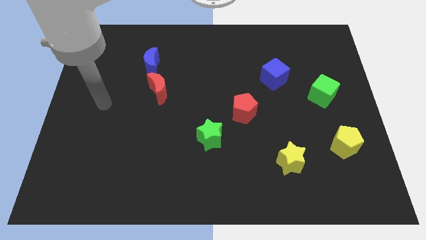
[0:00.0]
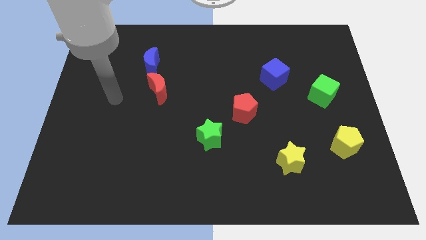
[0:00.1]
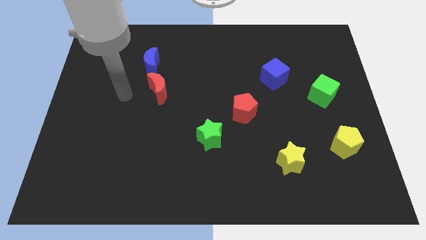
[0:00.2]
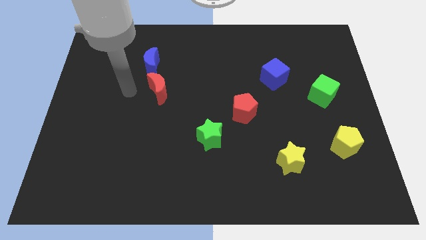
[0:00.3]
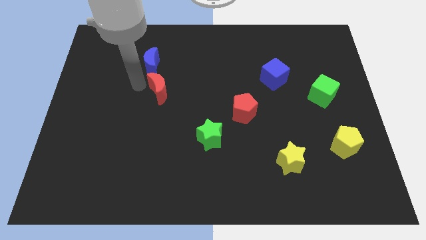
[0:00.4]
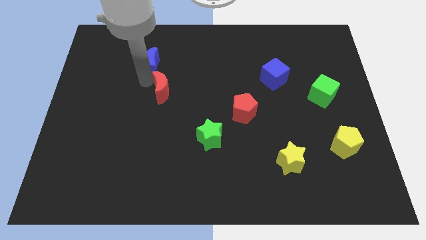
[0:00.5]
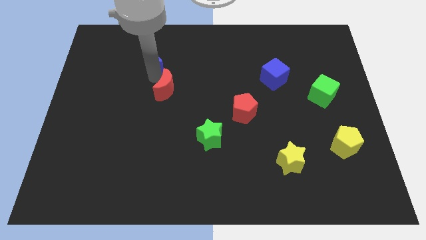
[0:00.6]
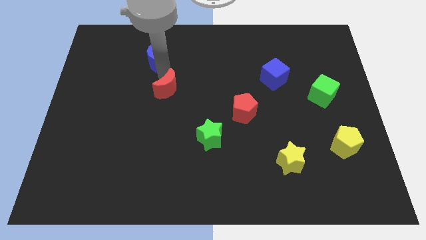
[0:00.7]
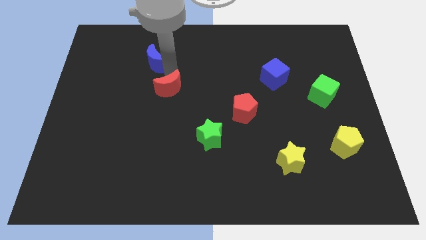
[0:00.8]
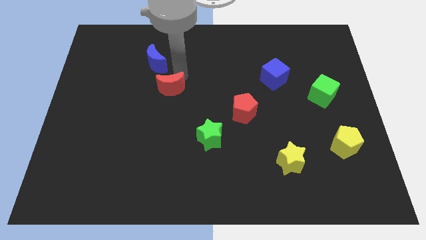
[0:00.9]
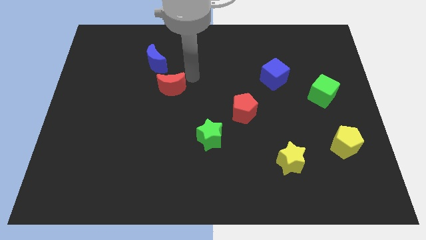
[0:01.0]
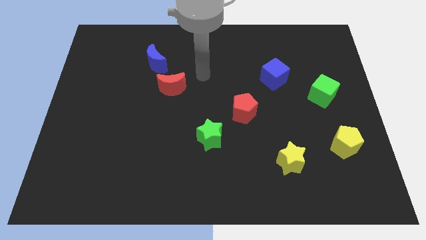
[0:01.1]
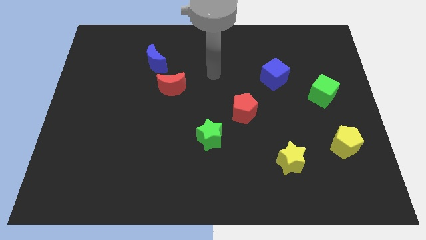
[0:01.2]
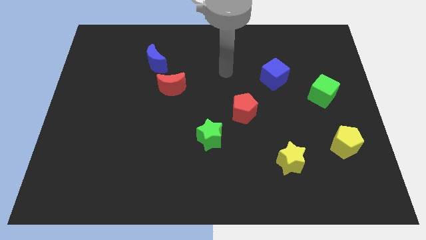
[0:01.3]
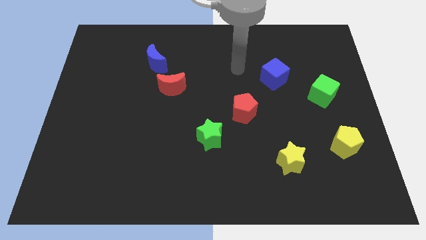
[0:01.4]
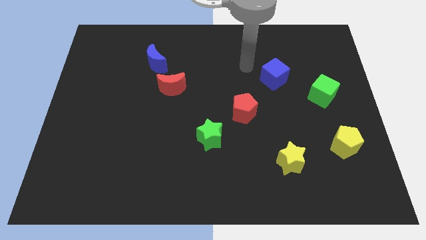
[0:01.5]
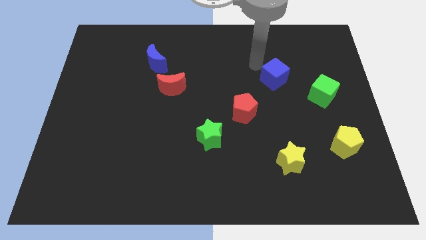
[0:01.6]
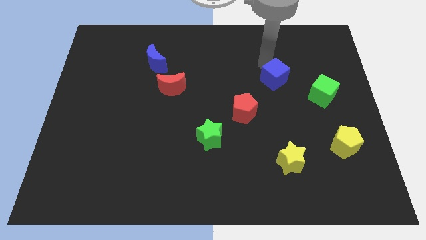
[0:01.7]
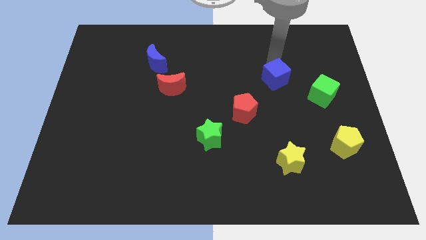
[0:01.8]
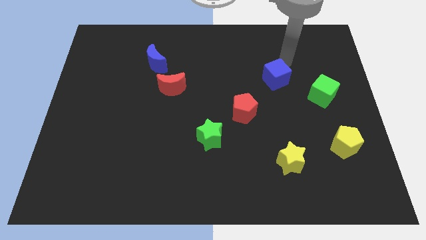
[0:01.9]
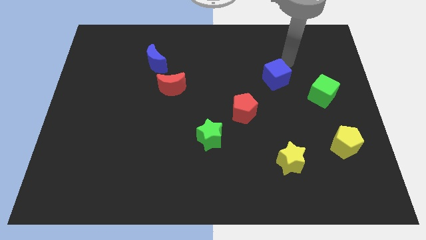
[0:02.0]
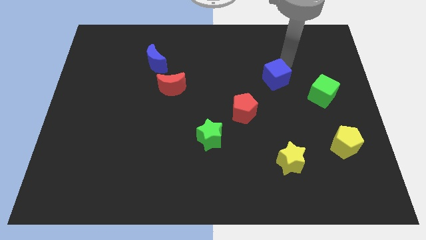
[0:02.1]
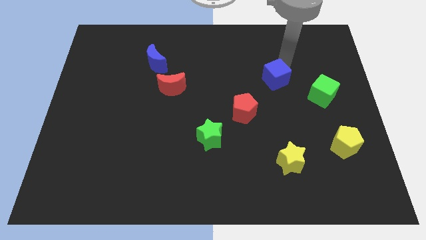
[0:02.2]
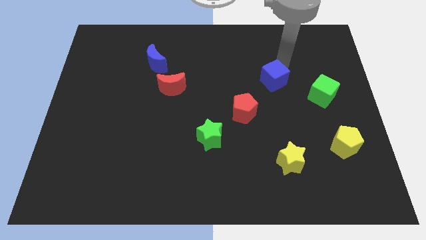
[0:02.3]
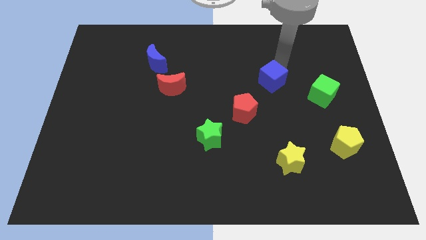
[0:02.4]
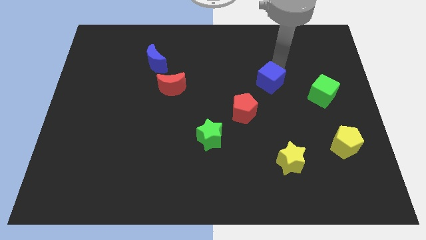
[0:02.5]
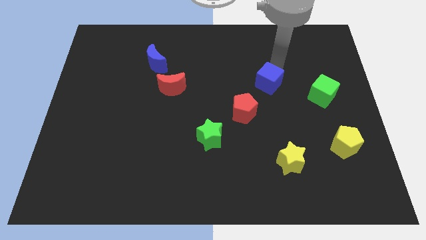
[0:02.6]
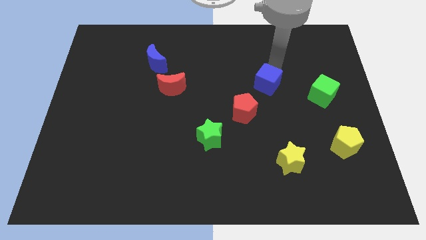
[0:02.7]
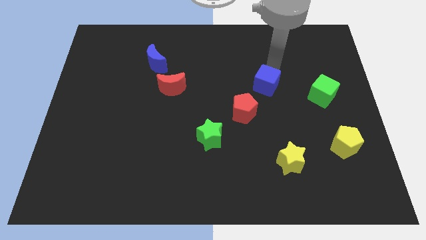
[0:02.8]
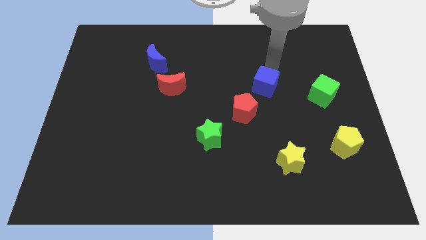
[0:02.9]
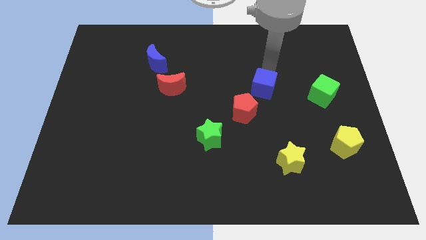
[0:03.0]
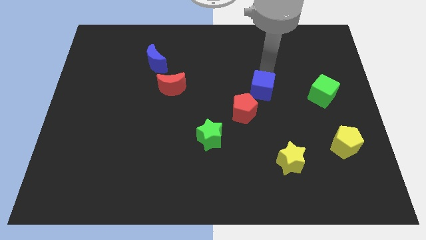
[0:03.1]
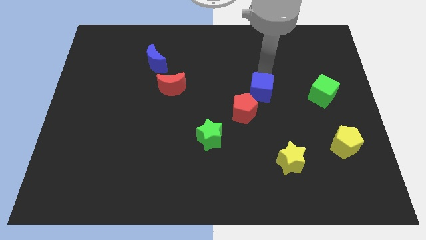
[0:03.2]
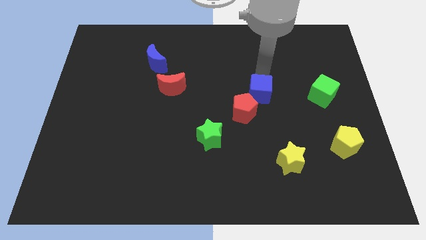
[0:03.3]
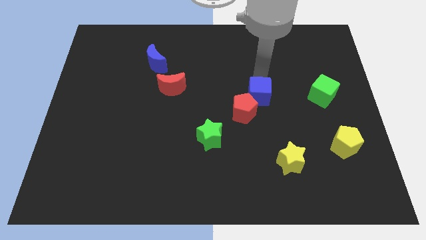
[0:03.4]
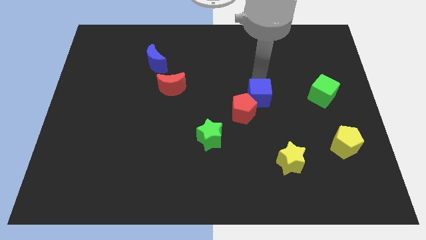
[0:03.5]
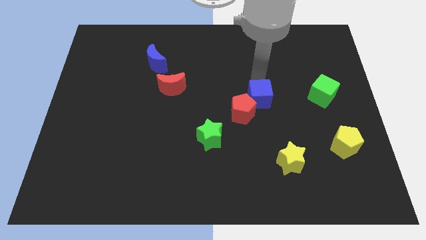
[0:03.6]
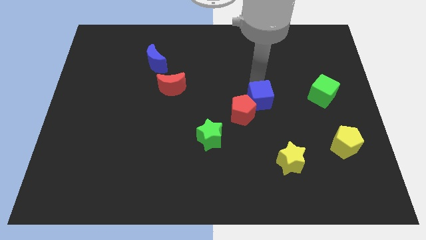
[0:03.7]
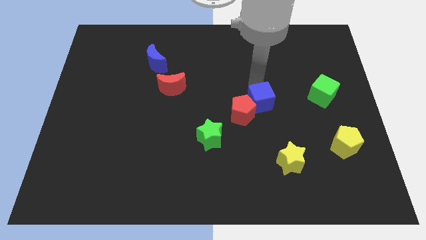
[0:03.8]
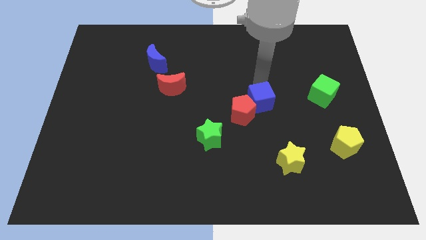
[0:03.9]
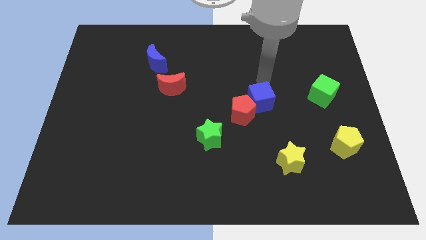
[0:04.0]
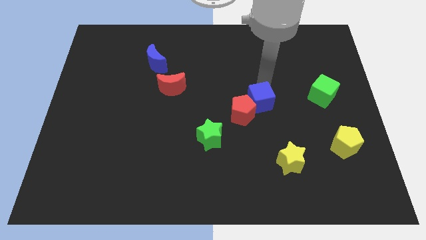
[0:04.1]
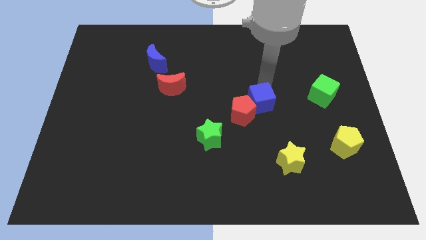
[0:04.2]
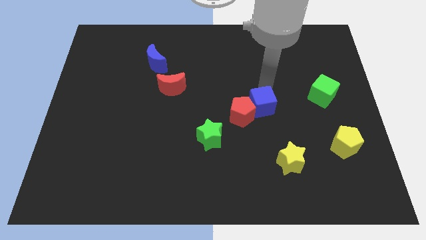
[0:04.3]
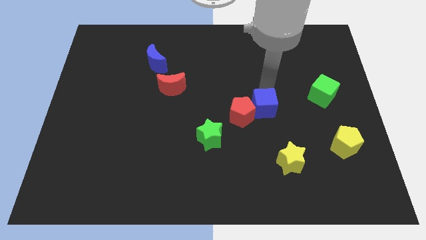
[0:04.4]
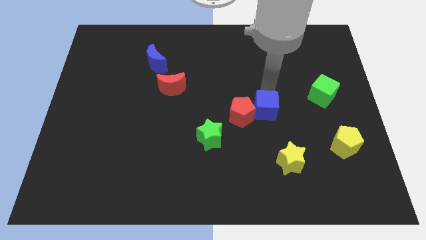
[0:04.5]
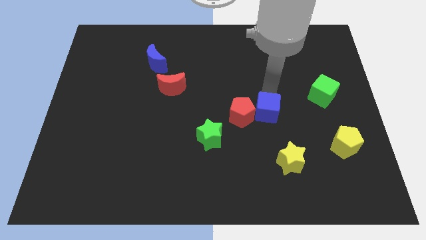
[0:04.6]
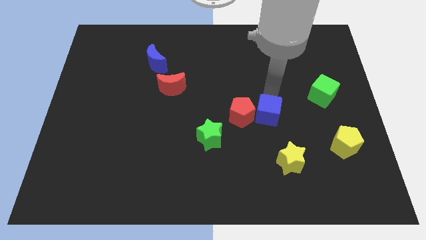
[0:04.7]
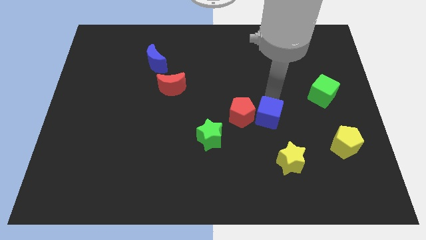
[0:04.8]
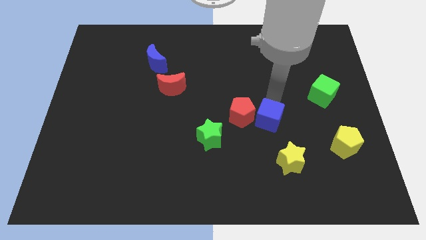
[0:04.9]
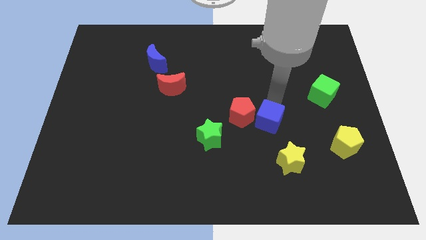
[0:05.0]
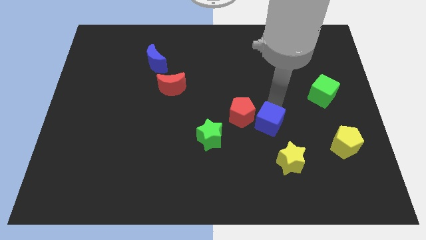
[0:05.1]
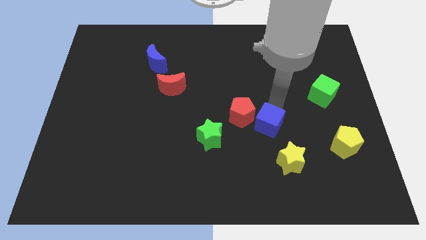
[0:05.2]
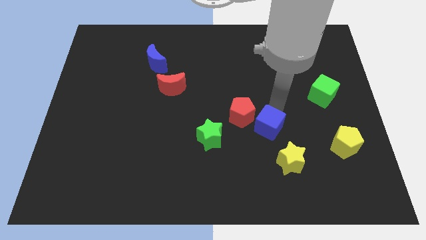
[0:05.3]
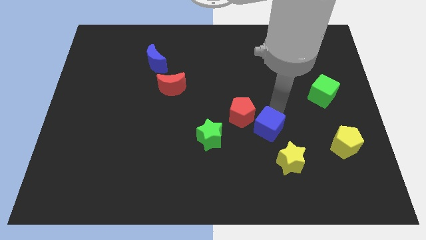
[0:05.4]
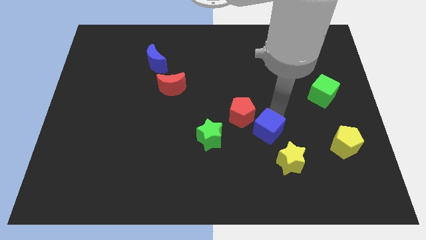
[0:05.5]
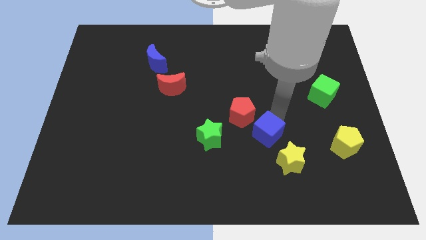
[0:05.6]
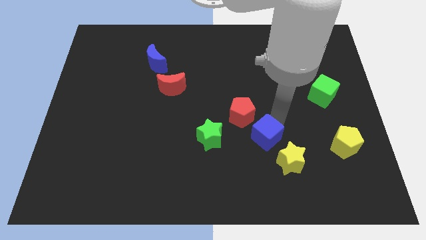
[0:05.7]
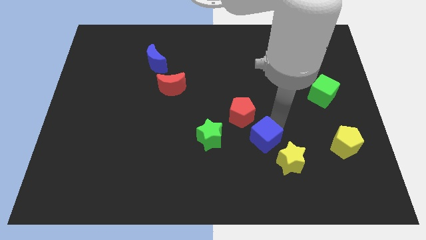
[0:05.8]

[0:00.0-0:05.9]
move the blue cube to the bottom side of the red pentagon

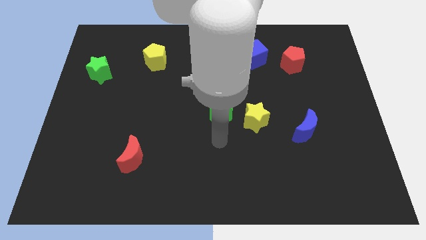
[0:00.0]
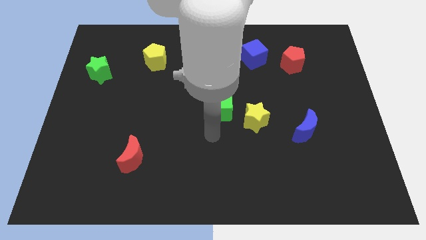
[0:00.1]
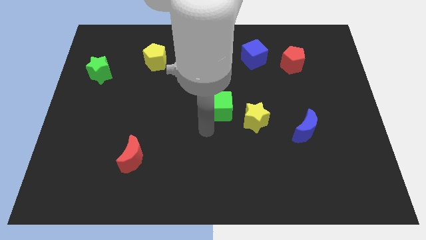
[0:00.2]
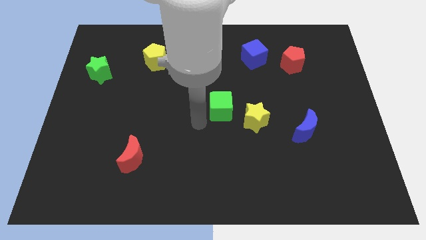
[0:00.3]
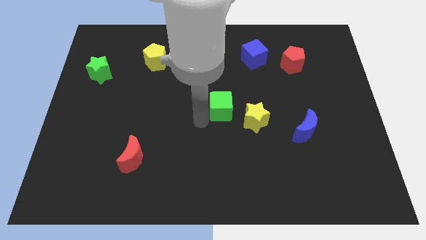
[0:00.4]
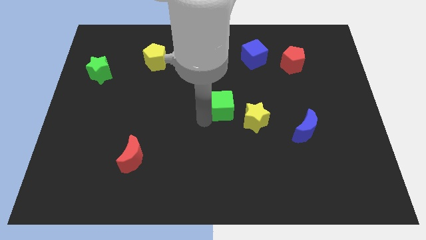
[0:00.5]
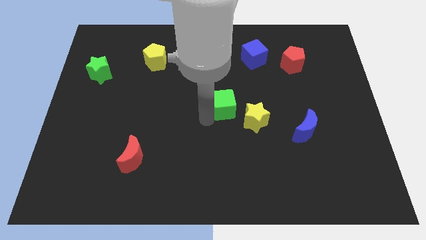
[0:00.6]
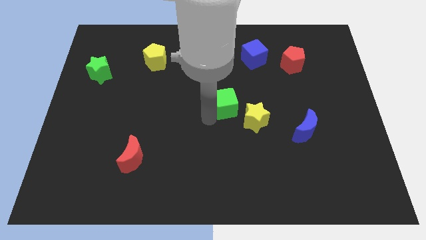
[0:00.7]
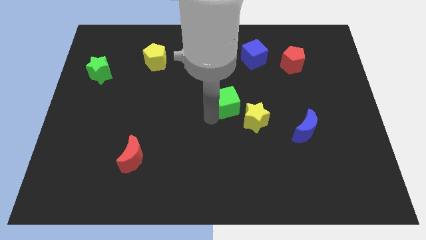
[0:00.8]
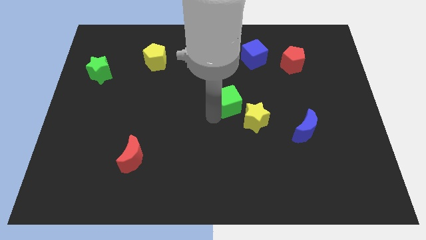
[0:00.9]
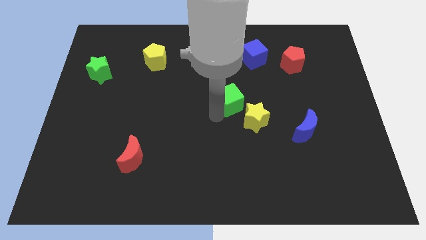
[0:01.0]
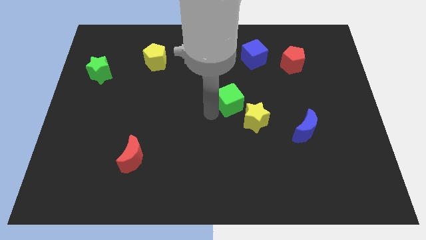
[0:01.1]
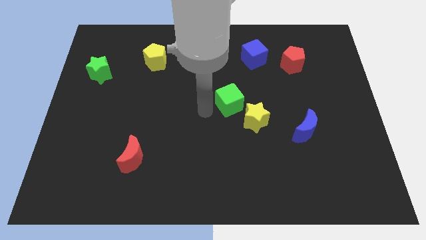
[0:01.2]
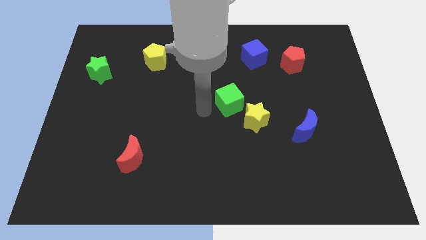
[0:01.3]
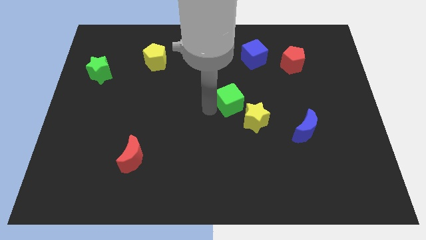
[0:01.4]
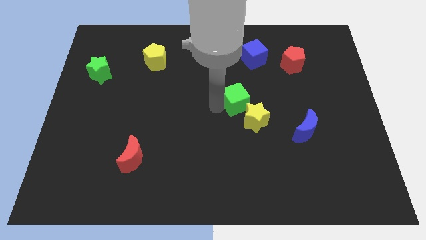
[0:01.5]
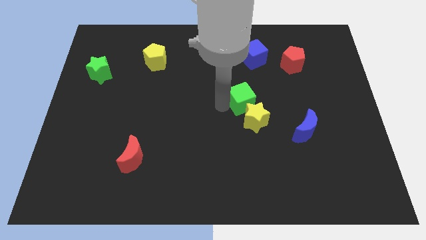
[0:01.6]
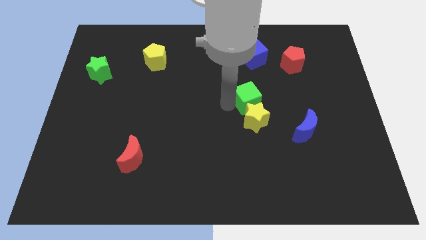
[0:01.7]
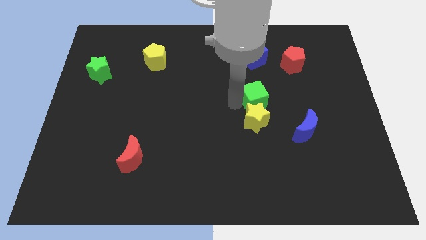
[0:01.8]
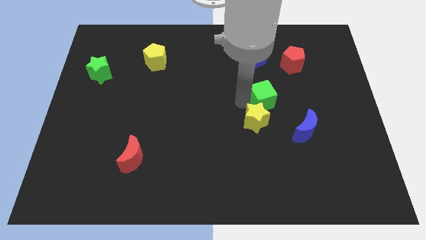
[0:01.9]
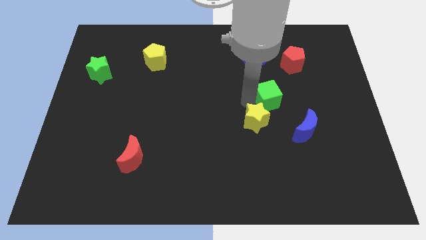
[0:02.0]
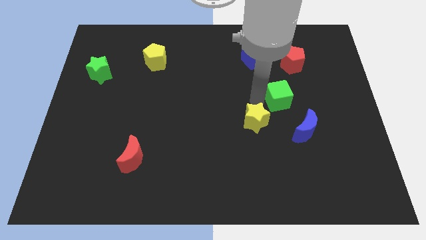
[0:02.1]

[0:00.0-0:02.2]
push the green cube to the bottom of the red pentagon
